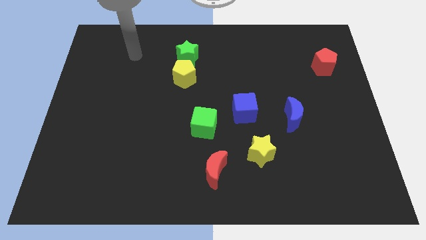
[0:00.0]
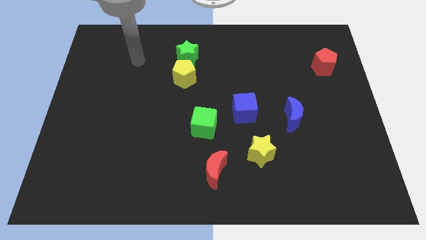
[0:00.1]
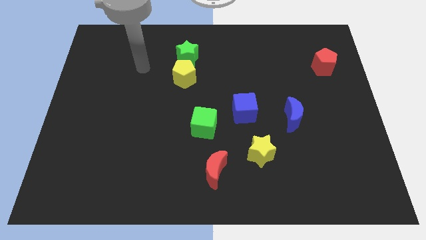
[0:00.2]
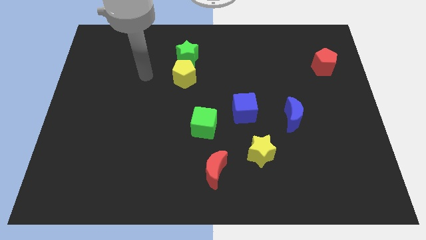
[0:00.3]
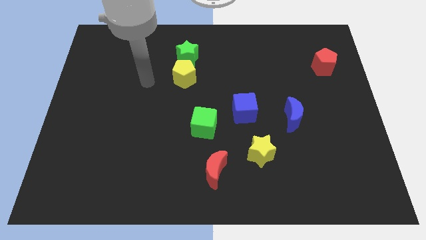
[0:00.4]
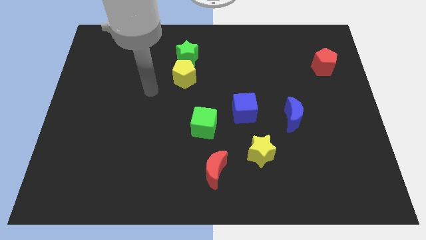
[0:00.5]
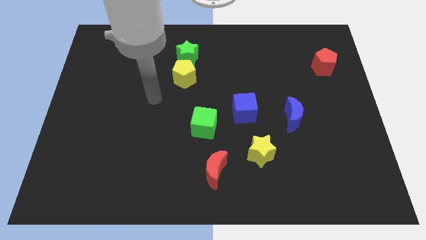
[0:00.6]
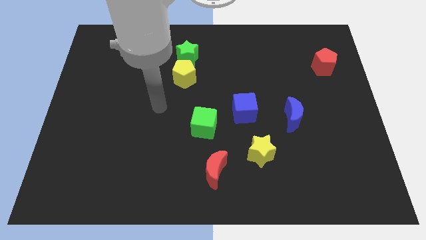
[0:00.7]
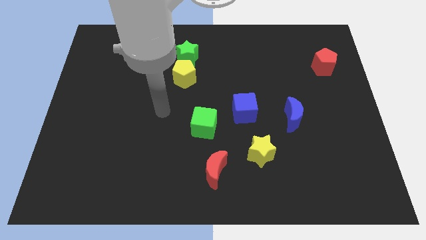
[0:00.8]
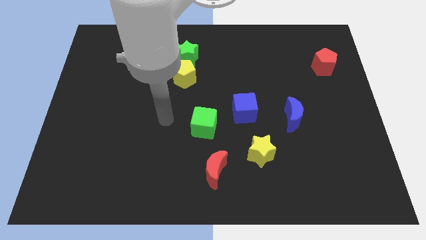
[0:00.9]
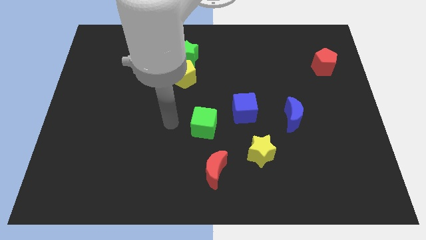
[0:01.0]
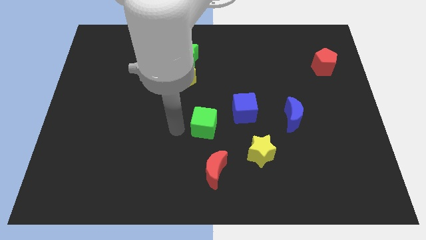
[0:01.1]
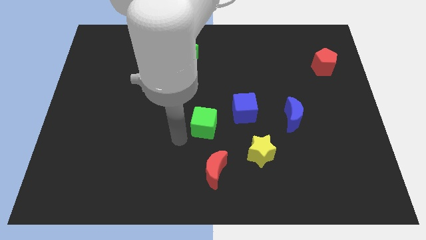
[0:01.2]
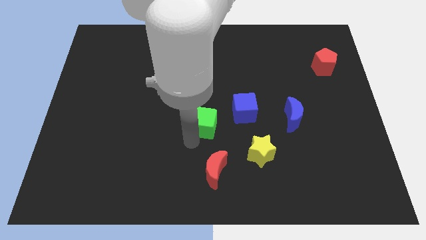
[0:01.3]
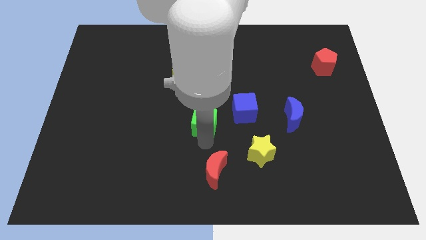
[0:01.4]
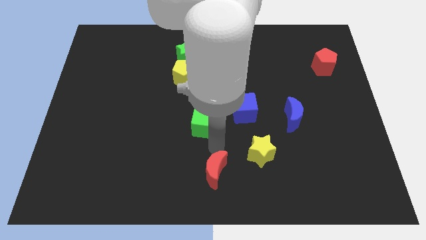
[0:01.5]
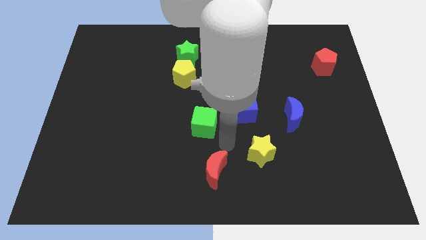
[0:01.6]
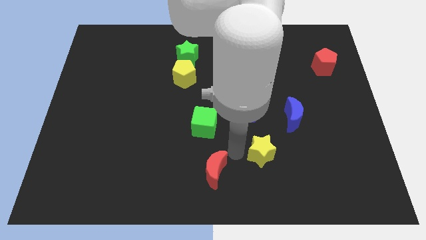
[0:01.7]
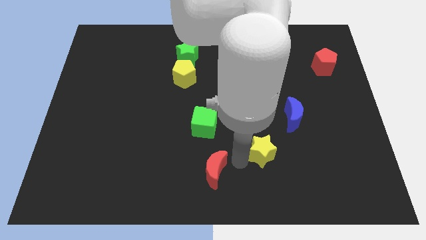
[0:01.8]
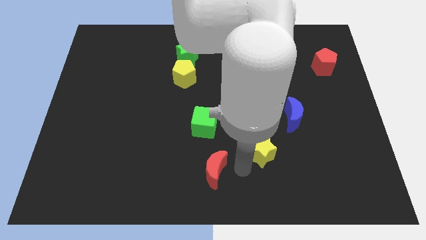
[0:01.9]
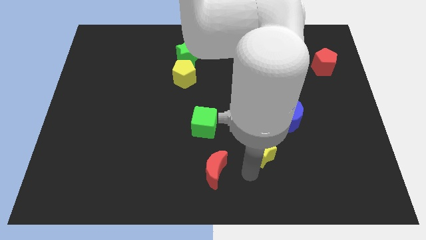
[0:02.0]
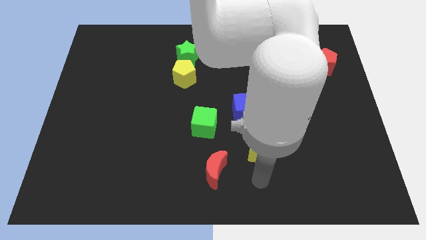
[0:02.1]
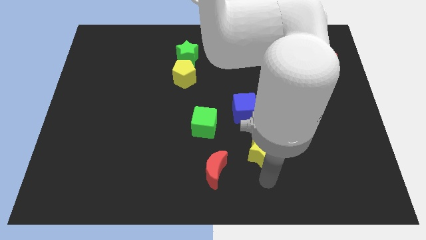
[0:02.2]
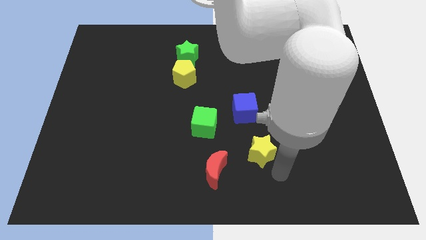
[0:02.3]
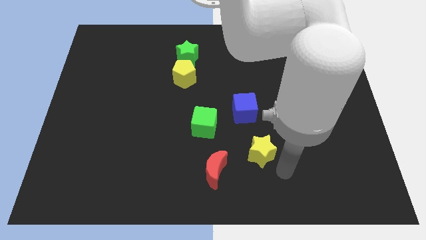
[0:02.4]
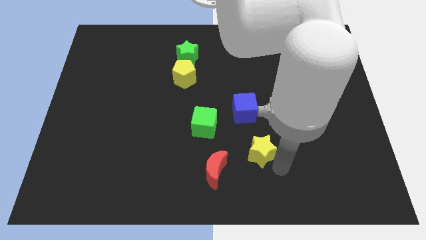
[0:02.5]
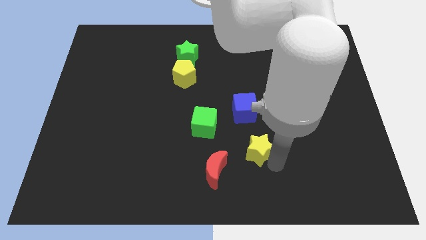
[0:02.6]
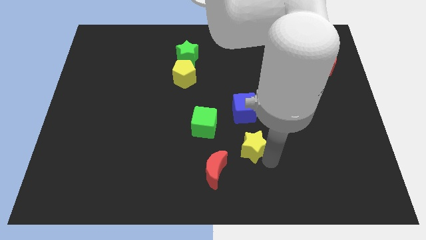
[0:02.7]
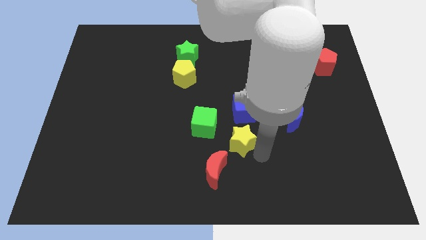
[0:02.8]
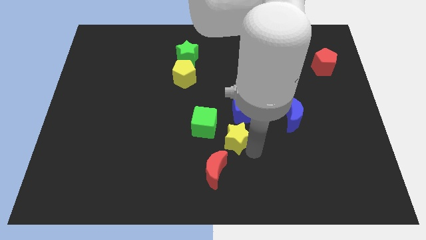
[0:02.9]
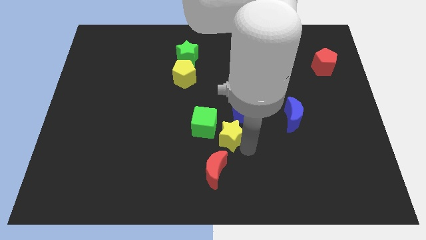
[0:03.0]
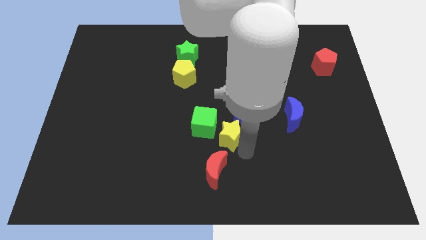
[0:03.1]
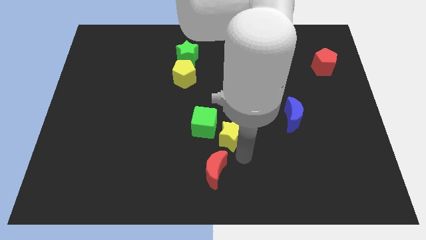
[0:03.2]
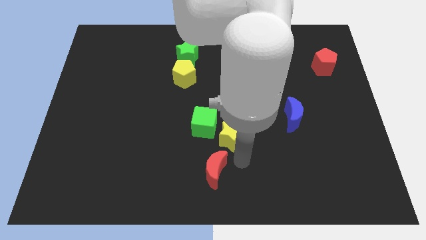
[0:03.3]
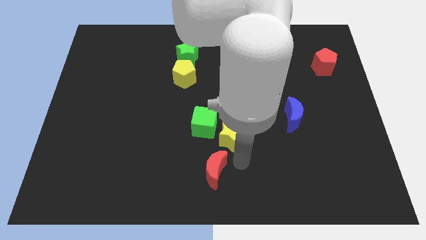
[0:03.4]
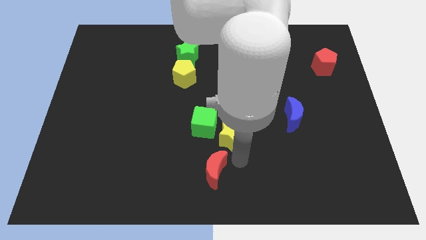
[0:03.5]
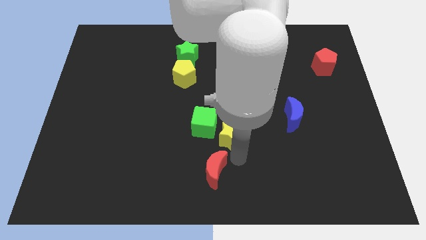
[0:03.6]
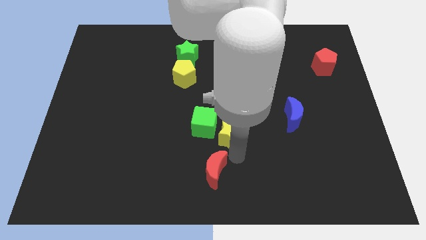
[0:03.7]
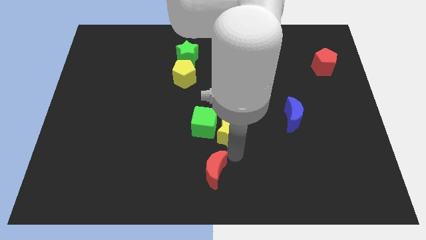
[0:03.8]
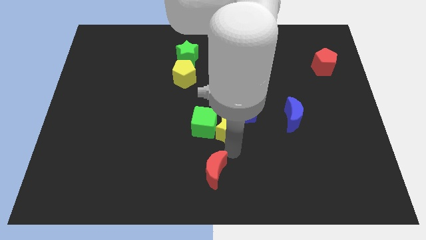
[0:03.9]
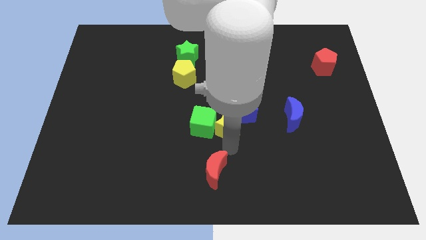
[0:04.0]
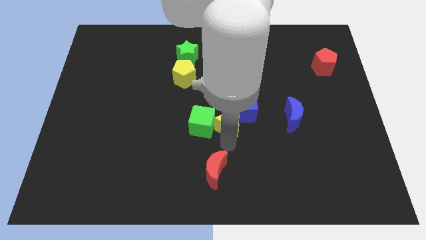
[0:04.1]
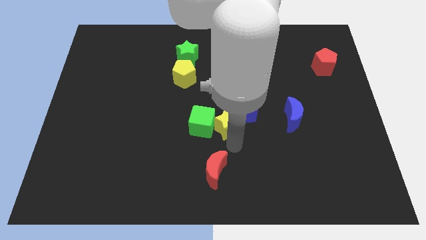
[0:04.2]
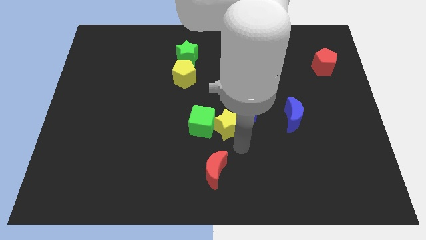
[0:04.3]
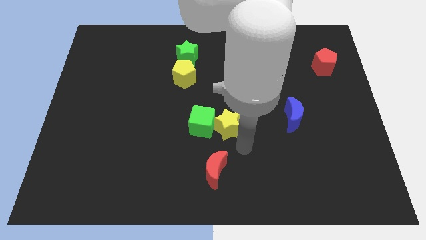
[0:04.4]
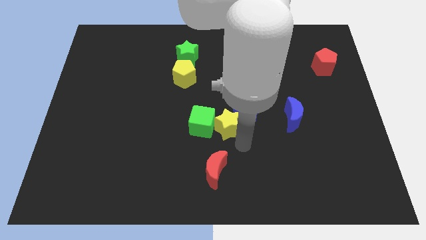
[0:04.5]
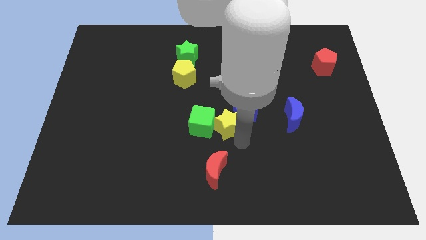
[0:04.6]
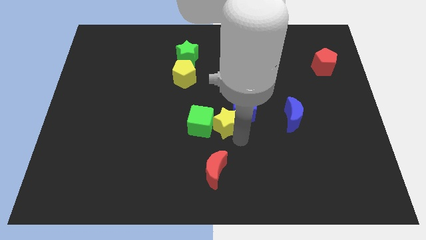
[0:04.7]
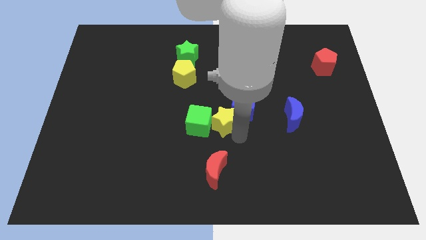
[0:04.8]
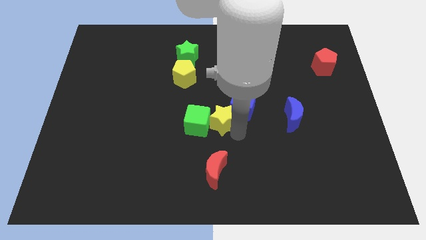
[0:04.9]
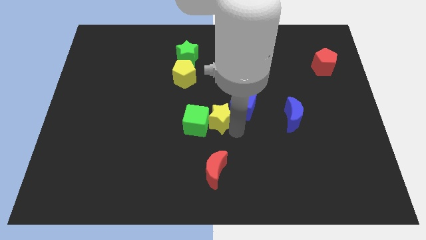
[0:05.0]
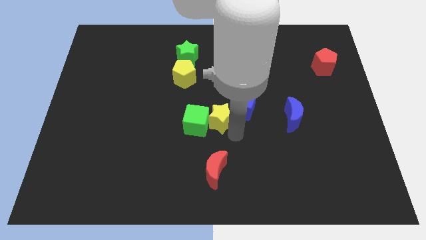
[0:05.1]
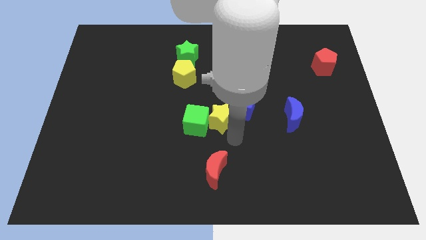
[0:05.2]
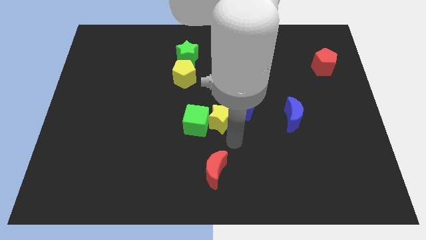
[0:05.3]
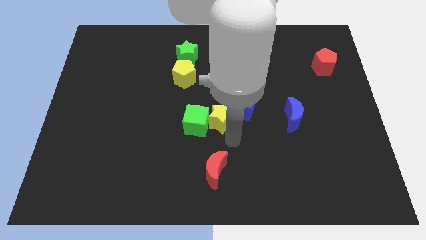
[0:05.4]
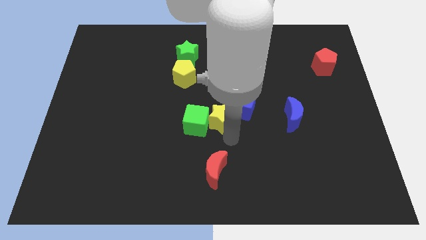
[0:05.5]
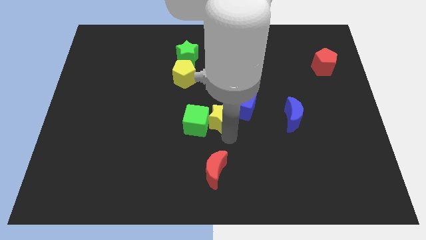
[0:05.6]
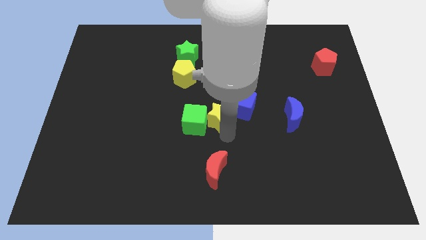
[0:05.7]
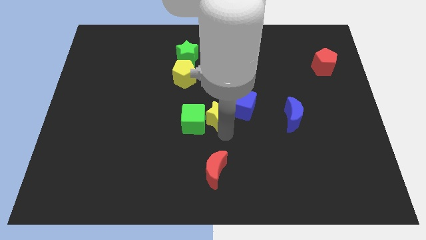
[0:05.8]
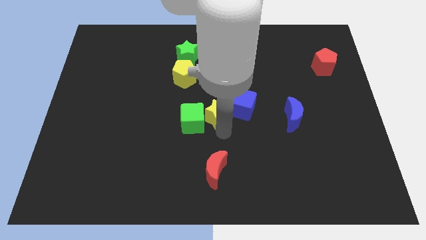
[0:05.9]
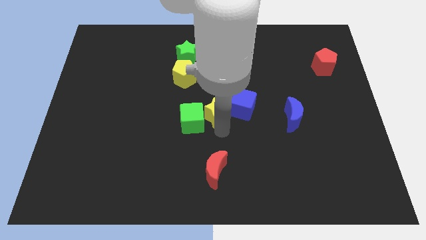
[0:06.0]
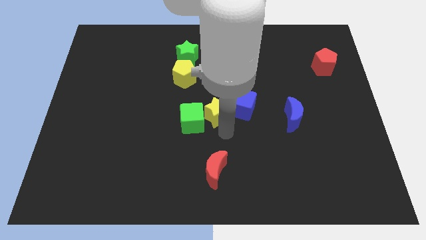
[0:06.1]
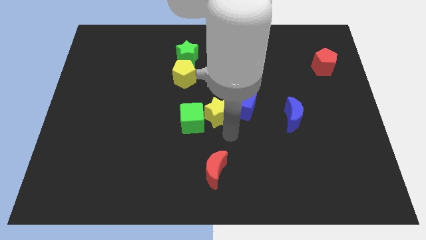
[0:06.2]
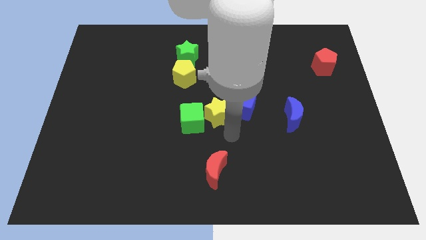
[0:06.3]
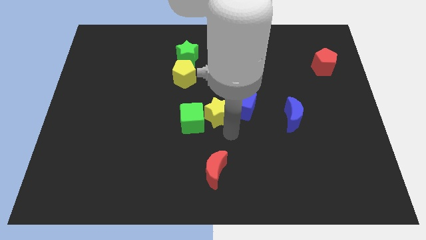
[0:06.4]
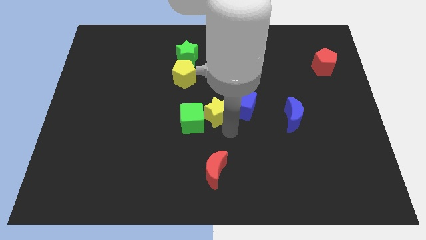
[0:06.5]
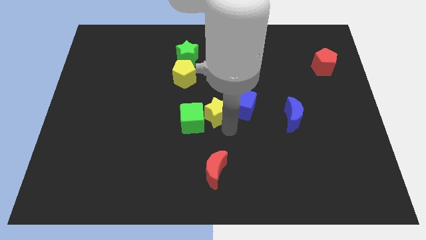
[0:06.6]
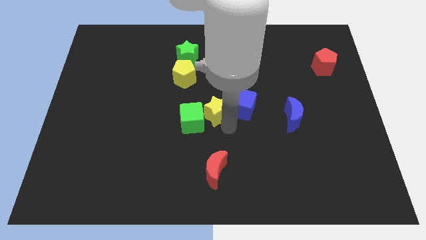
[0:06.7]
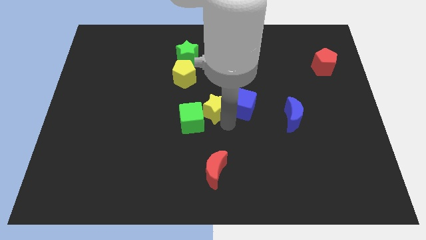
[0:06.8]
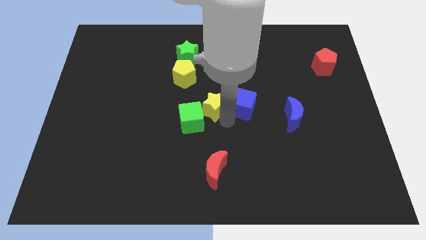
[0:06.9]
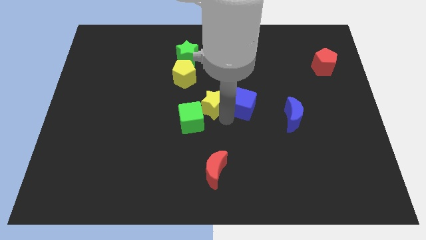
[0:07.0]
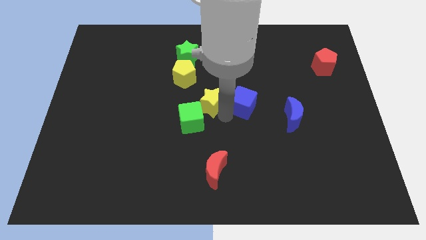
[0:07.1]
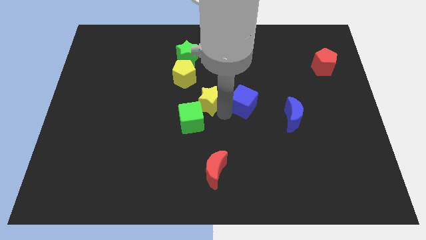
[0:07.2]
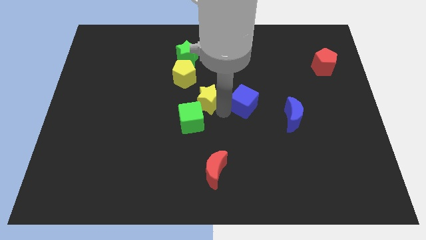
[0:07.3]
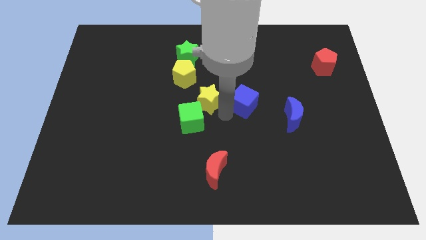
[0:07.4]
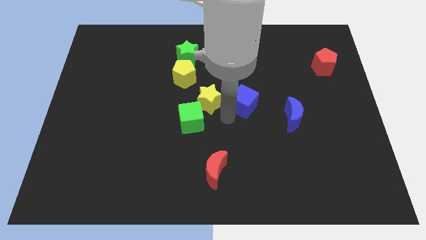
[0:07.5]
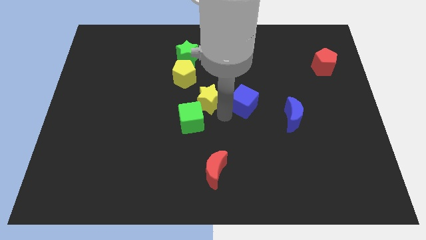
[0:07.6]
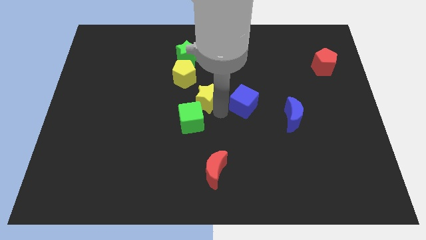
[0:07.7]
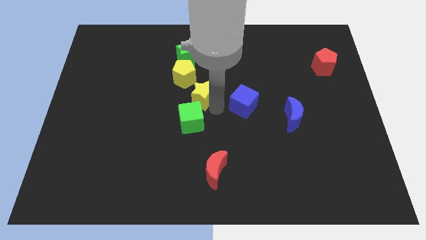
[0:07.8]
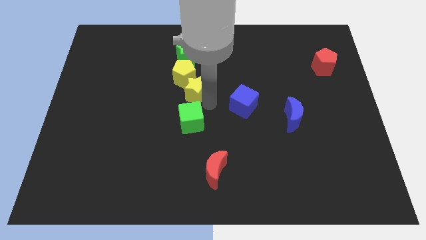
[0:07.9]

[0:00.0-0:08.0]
put the yellow star next to the yellow pentagon

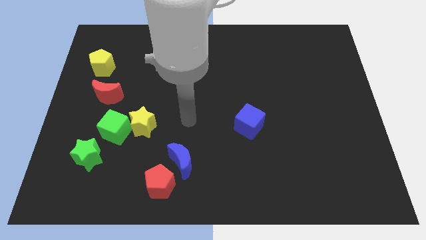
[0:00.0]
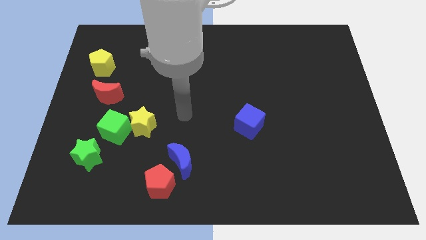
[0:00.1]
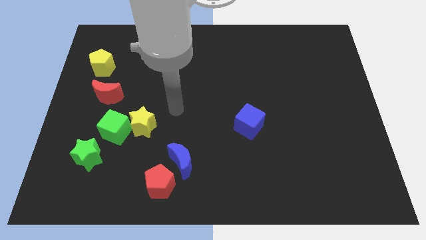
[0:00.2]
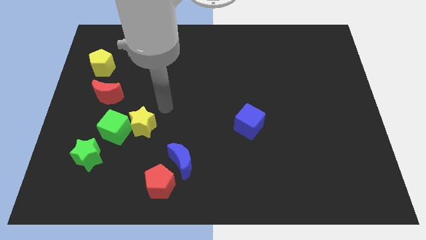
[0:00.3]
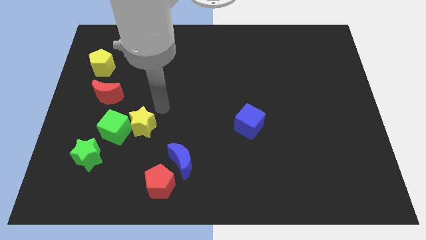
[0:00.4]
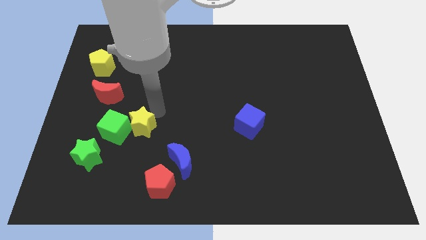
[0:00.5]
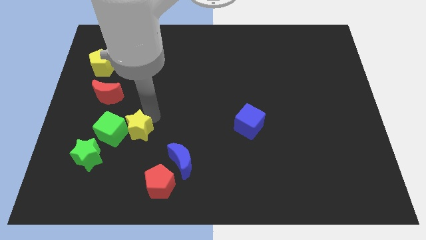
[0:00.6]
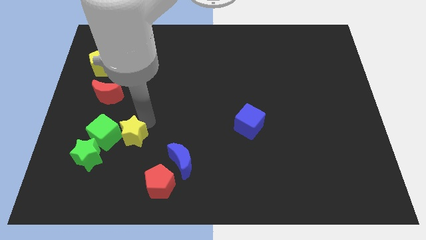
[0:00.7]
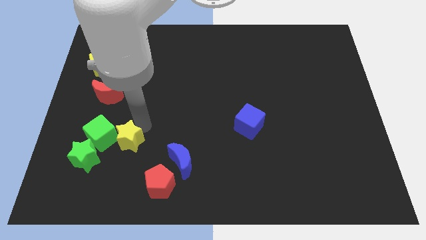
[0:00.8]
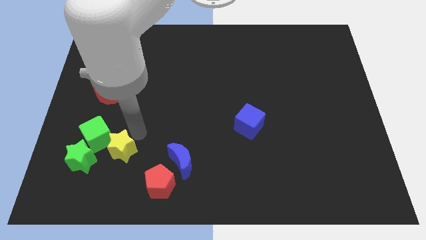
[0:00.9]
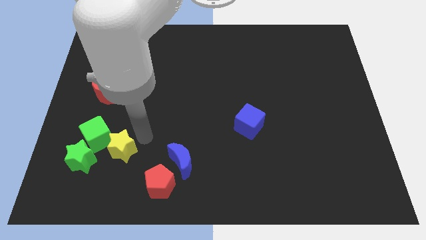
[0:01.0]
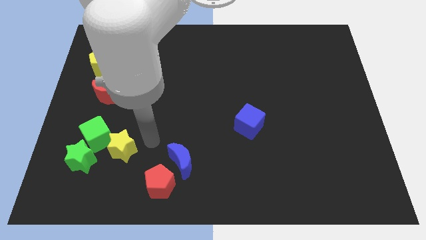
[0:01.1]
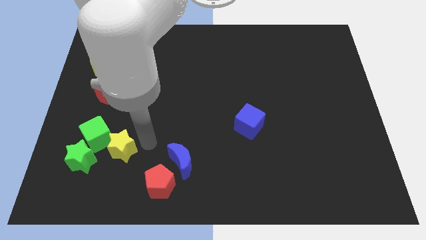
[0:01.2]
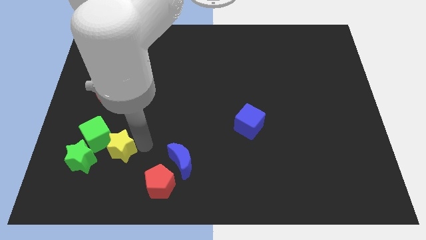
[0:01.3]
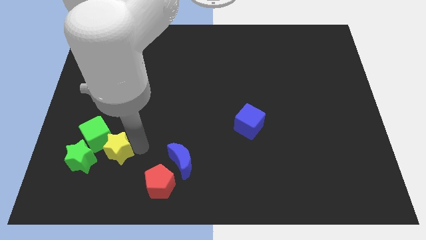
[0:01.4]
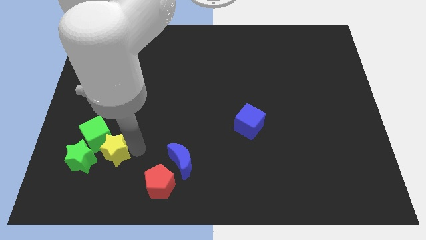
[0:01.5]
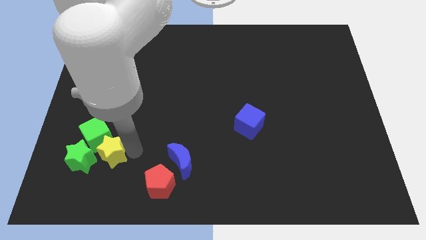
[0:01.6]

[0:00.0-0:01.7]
put the yellow star towards the green star
